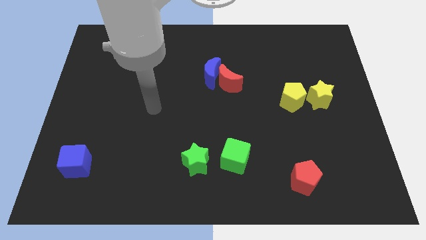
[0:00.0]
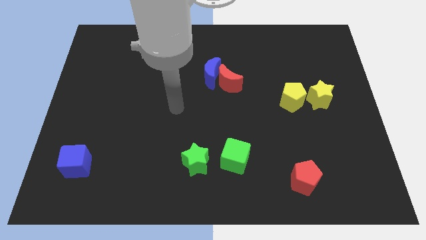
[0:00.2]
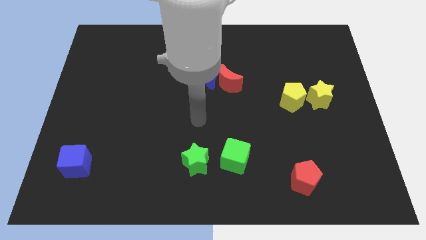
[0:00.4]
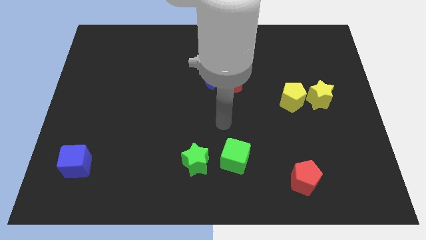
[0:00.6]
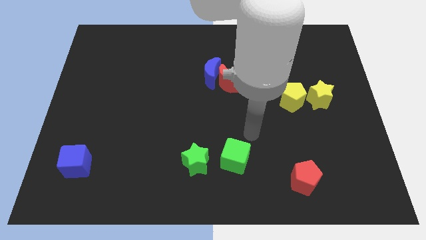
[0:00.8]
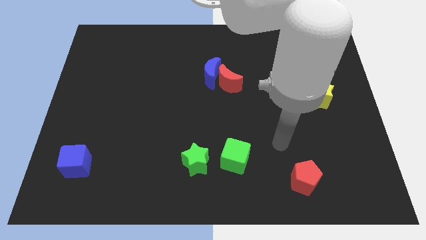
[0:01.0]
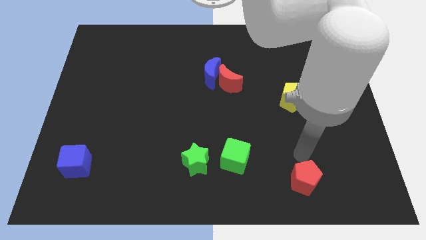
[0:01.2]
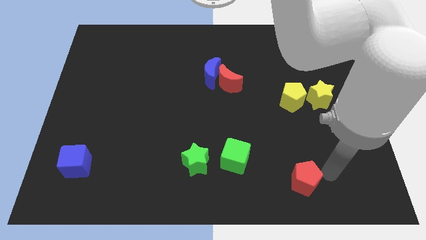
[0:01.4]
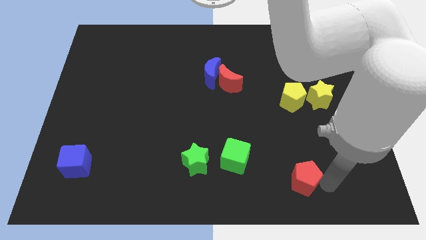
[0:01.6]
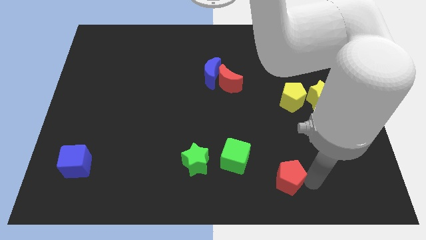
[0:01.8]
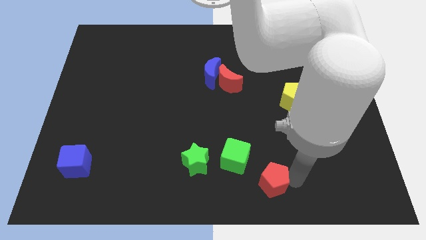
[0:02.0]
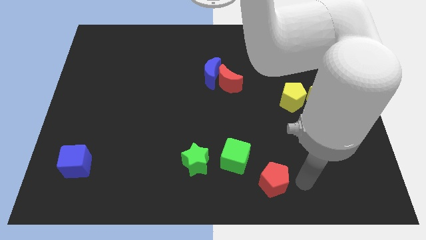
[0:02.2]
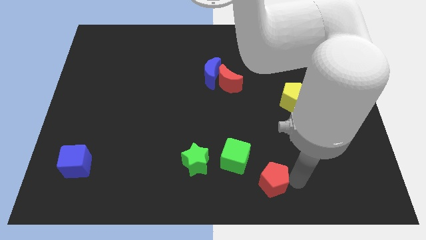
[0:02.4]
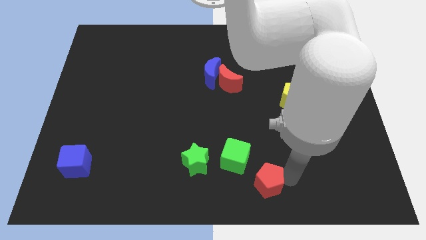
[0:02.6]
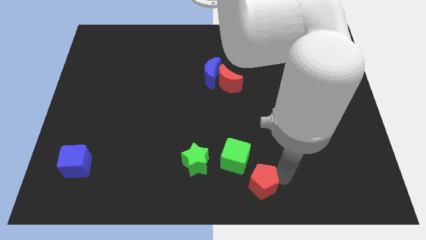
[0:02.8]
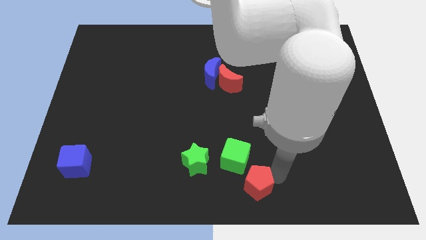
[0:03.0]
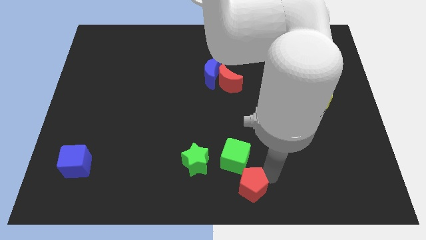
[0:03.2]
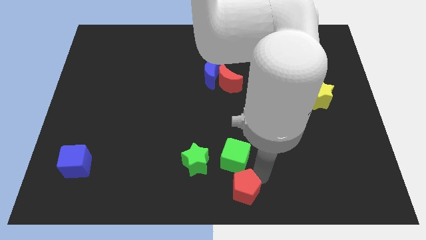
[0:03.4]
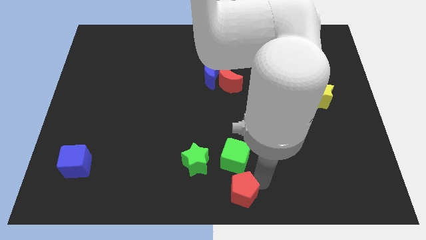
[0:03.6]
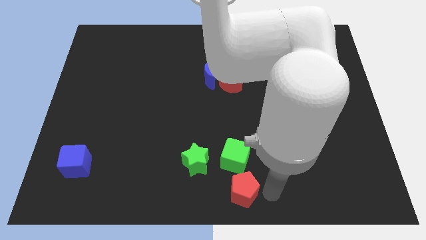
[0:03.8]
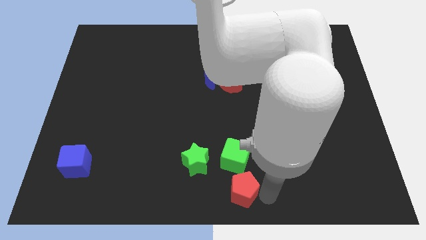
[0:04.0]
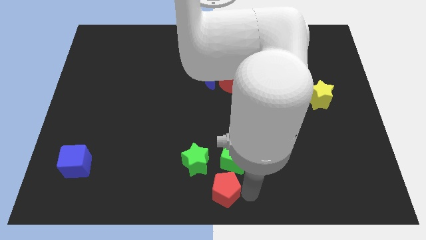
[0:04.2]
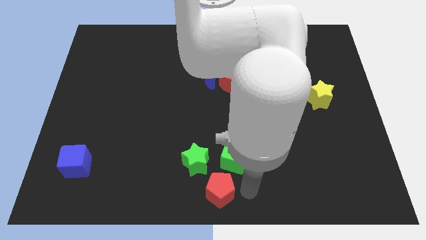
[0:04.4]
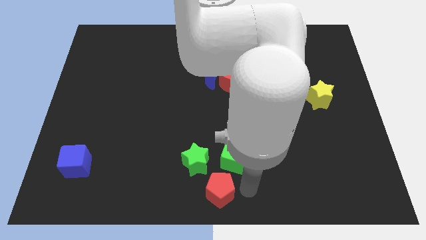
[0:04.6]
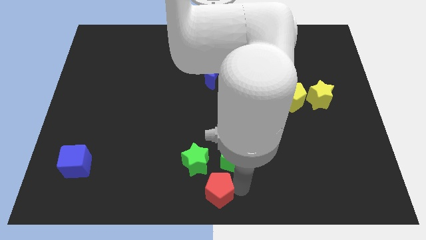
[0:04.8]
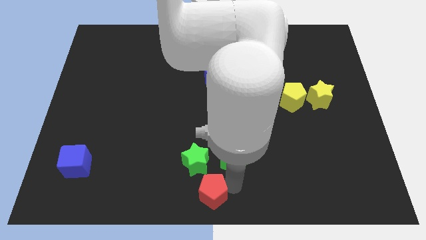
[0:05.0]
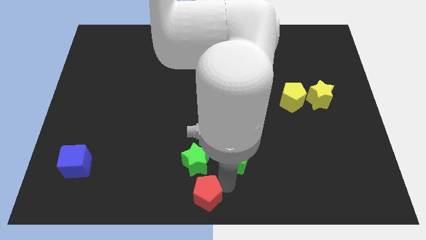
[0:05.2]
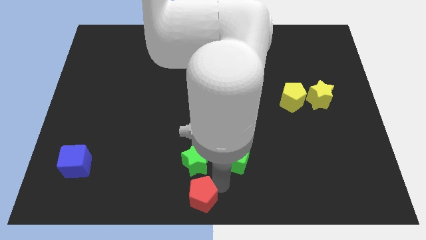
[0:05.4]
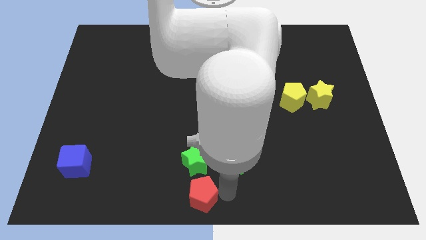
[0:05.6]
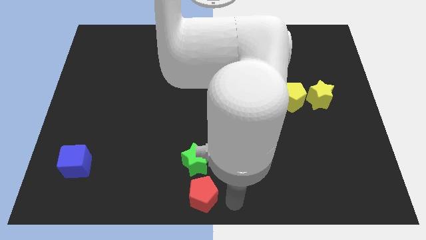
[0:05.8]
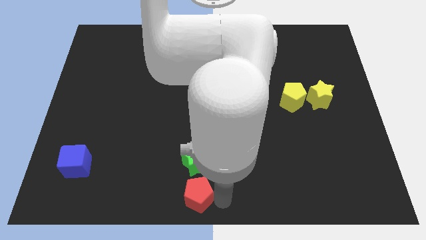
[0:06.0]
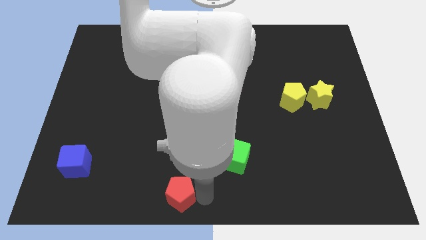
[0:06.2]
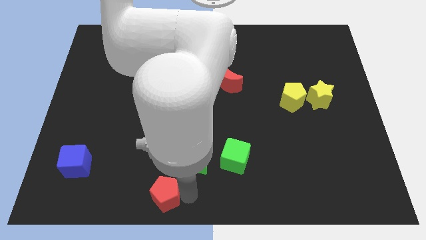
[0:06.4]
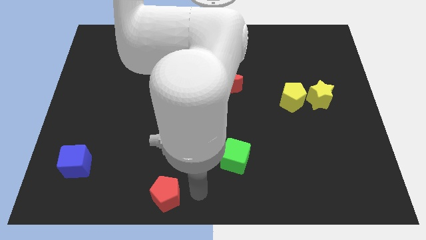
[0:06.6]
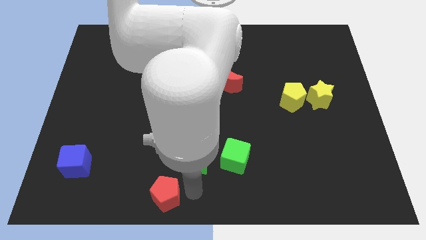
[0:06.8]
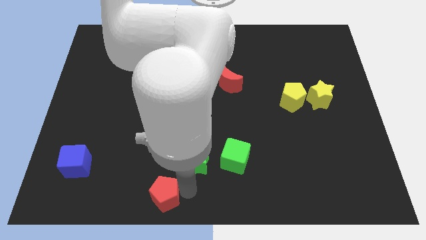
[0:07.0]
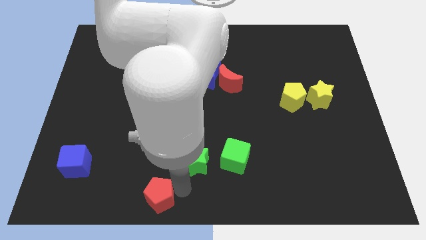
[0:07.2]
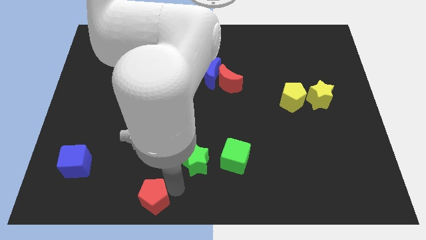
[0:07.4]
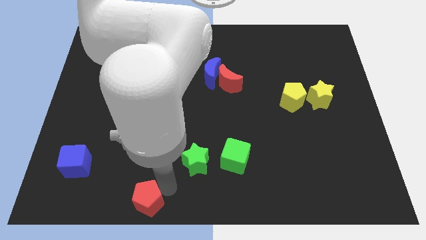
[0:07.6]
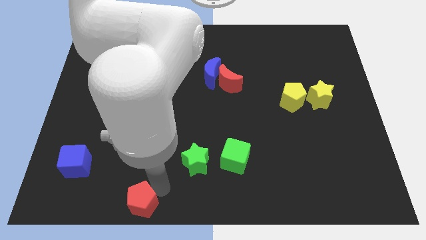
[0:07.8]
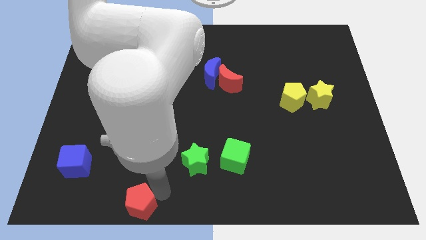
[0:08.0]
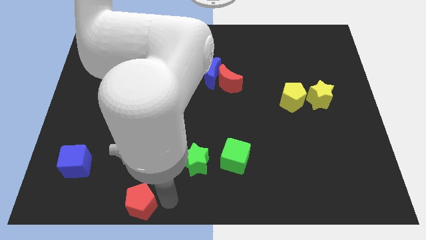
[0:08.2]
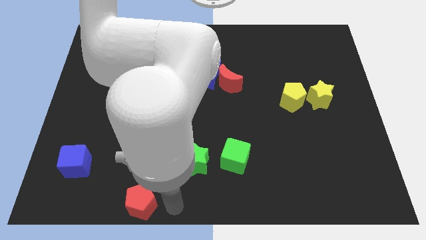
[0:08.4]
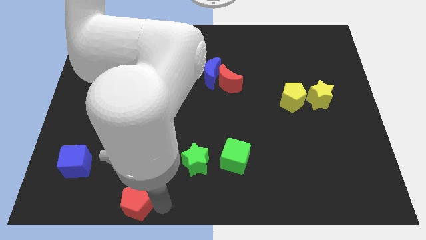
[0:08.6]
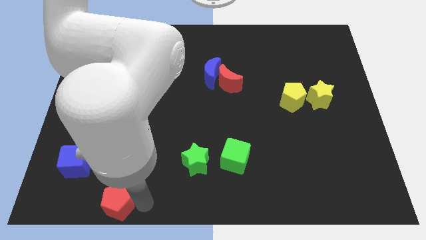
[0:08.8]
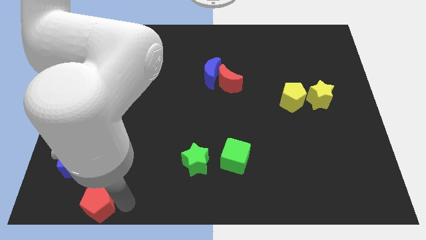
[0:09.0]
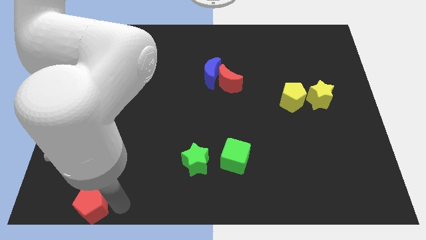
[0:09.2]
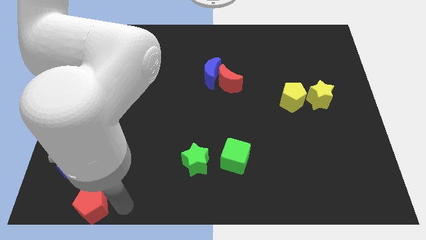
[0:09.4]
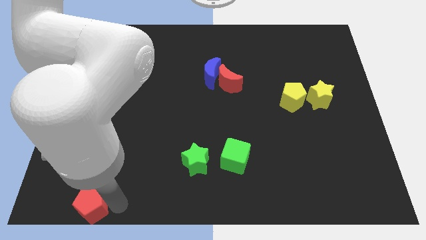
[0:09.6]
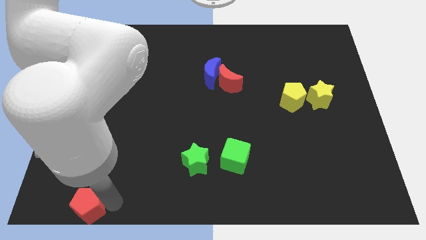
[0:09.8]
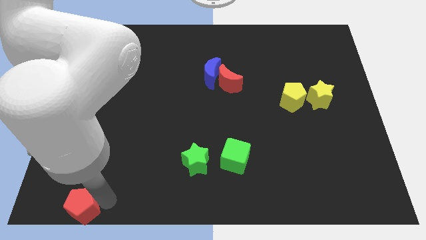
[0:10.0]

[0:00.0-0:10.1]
put the red pentagon to the lower left corner

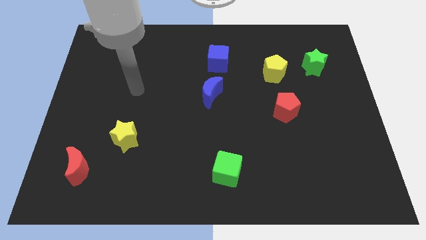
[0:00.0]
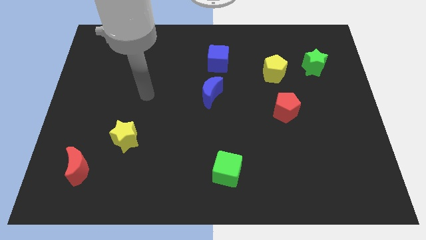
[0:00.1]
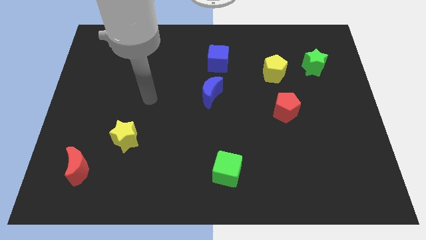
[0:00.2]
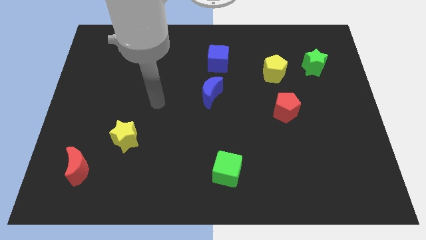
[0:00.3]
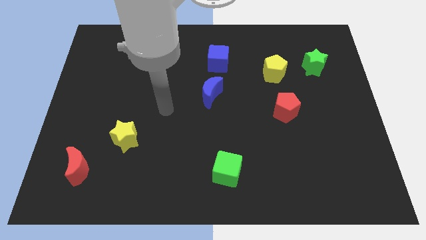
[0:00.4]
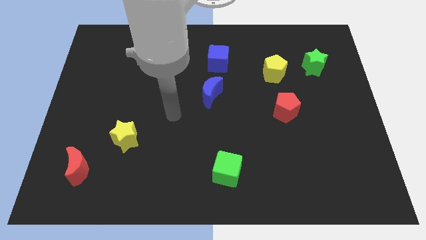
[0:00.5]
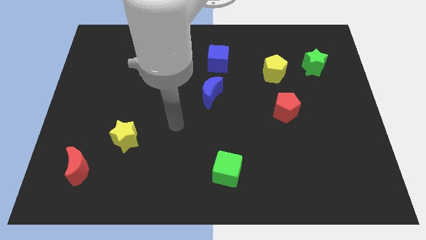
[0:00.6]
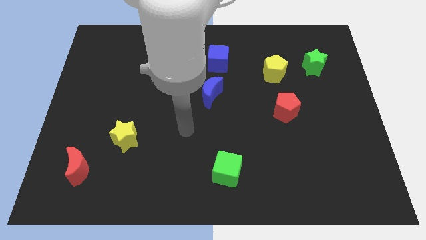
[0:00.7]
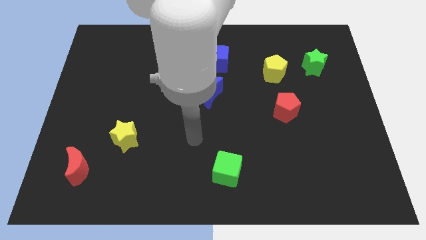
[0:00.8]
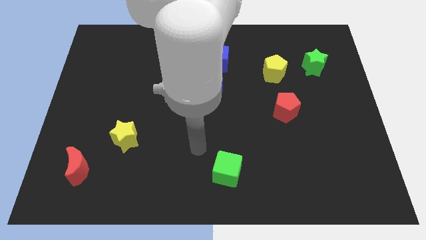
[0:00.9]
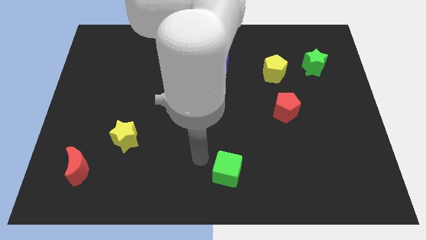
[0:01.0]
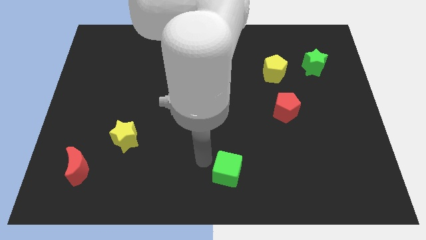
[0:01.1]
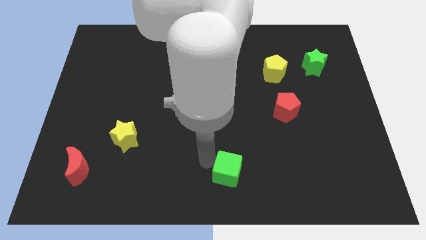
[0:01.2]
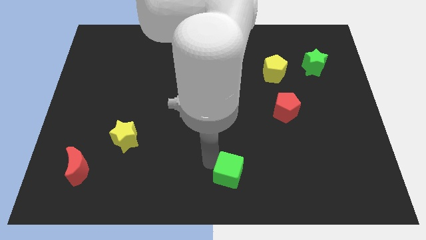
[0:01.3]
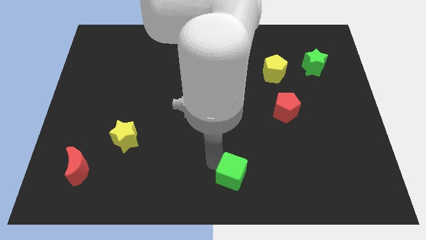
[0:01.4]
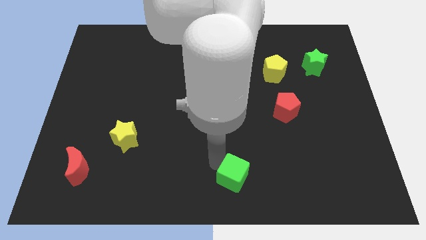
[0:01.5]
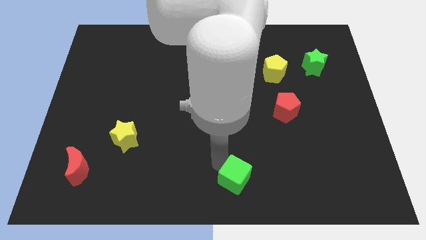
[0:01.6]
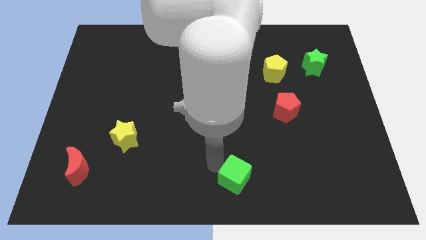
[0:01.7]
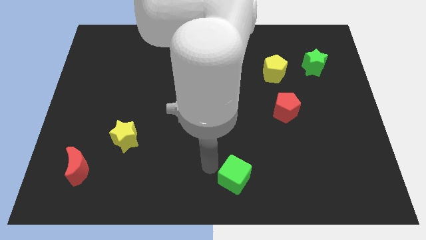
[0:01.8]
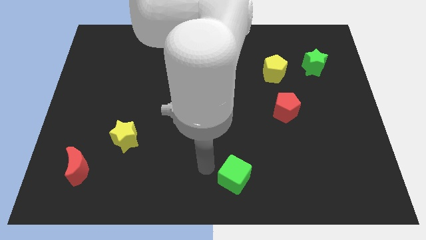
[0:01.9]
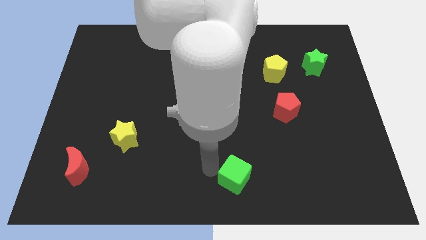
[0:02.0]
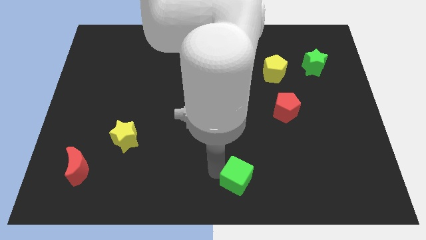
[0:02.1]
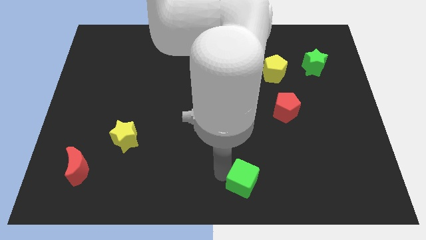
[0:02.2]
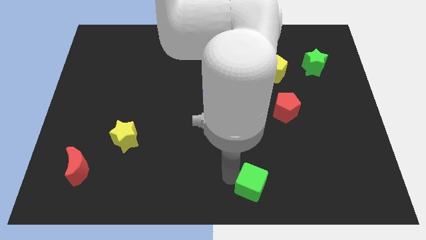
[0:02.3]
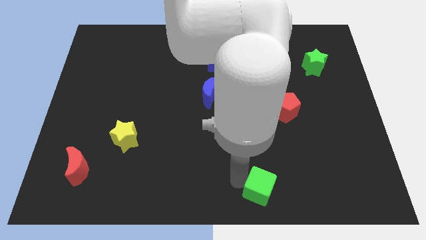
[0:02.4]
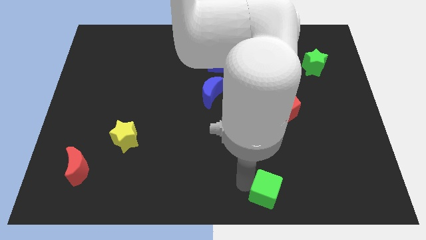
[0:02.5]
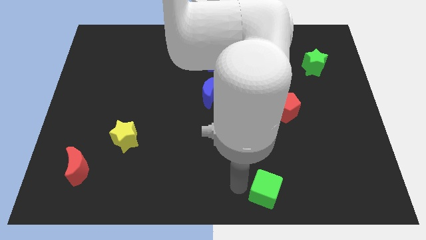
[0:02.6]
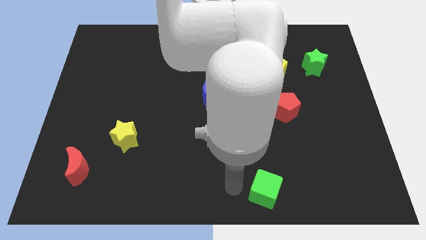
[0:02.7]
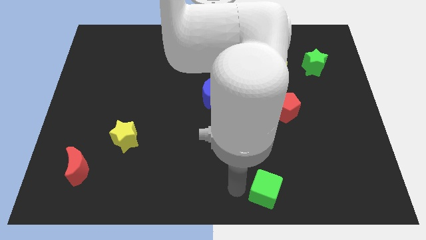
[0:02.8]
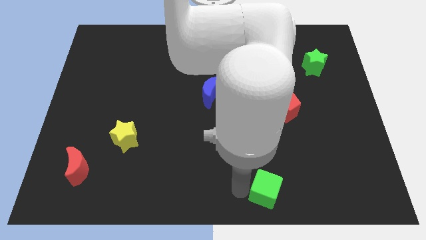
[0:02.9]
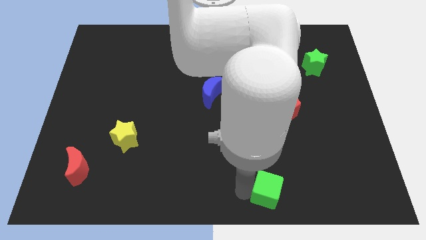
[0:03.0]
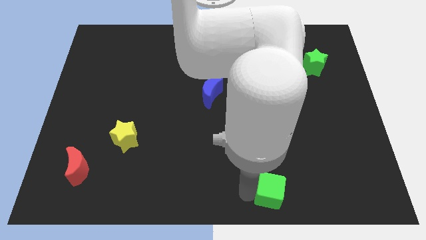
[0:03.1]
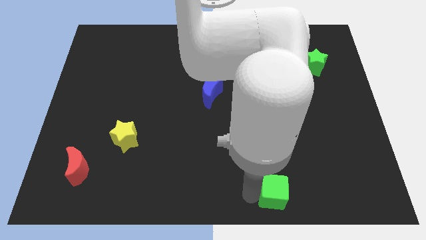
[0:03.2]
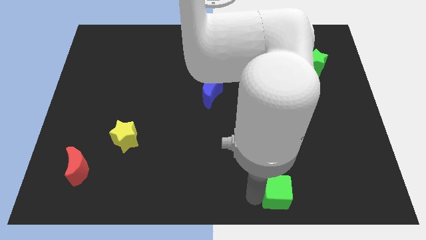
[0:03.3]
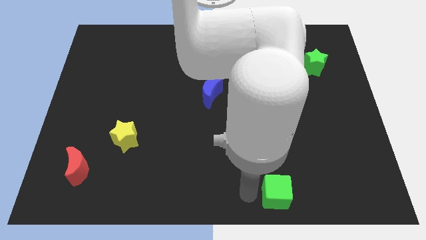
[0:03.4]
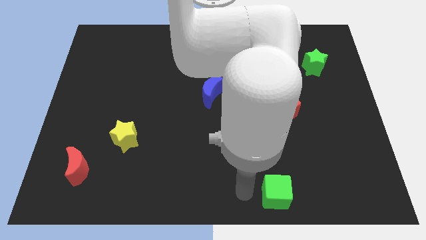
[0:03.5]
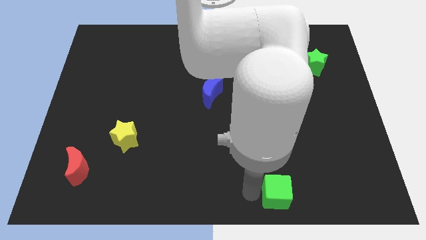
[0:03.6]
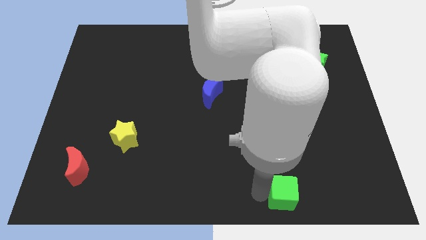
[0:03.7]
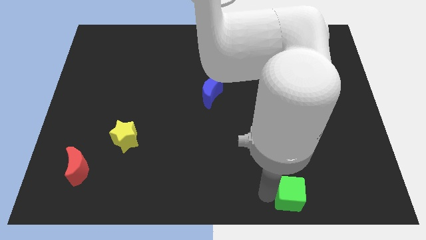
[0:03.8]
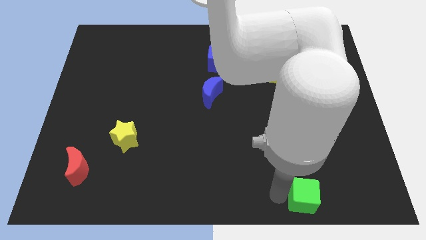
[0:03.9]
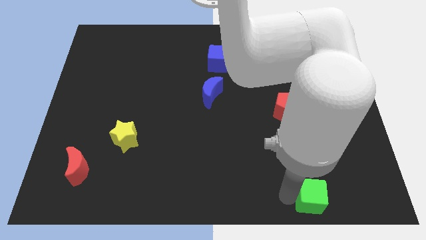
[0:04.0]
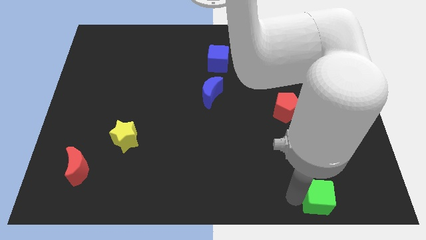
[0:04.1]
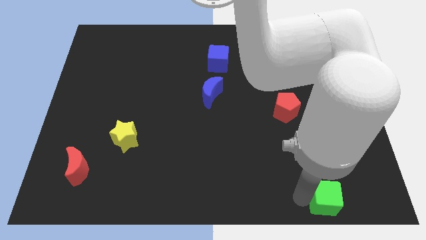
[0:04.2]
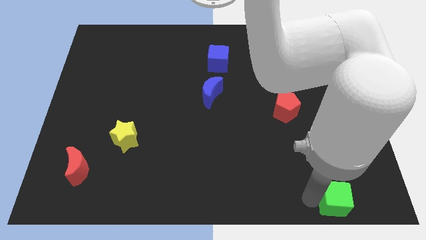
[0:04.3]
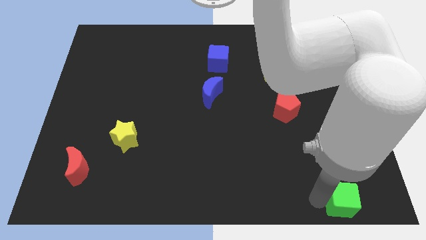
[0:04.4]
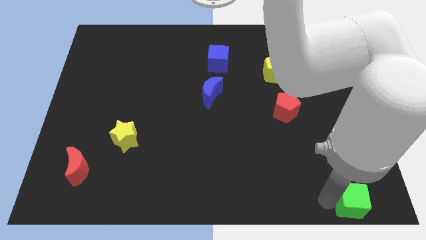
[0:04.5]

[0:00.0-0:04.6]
push the green cube to the bottom right of the board
